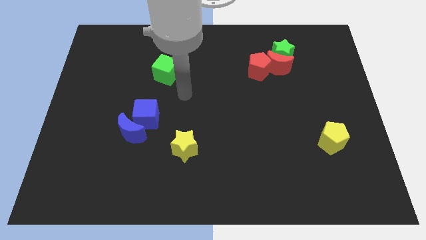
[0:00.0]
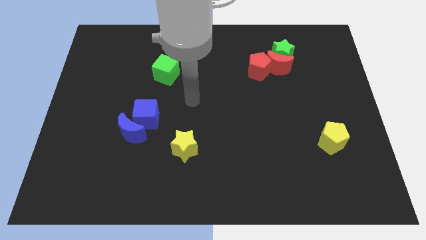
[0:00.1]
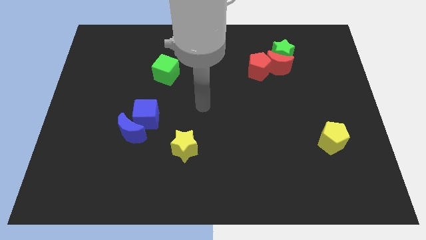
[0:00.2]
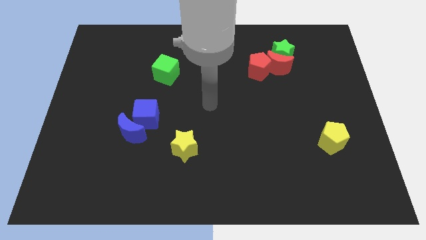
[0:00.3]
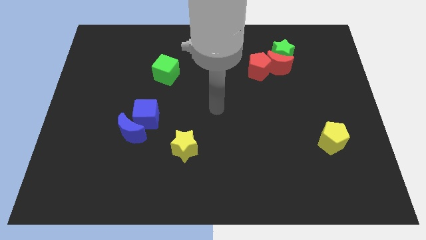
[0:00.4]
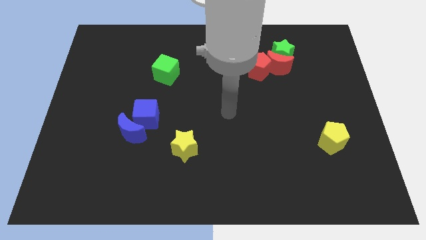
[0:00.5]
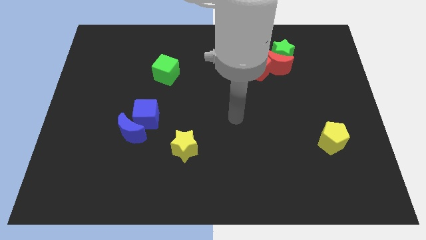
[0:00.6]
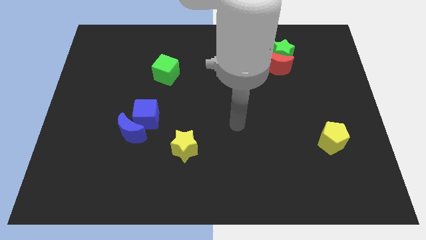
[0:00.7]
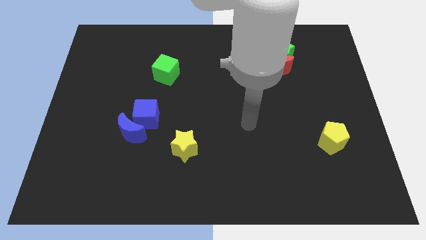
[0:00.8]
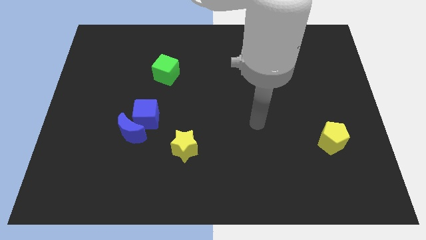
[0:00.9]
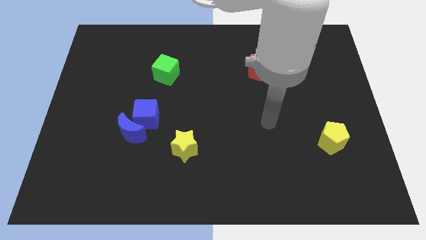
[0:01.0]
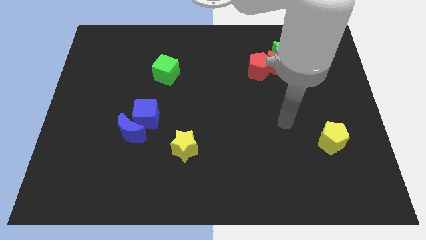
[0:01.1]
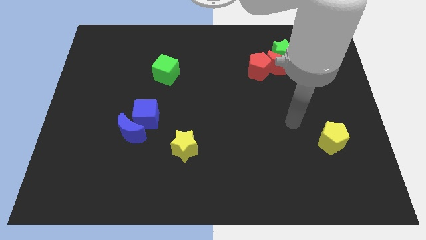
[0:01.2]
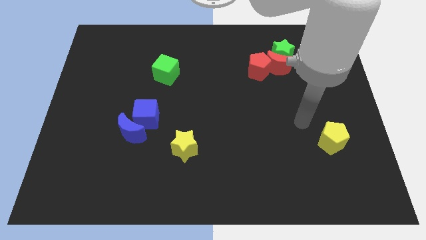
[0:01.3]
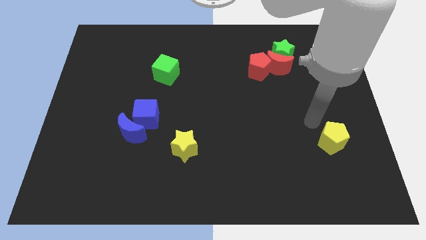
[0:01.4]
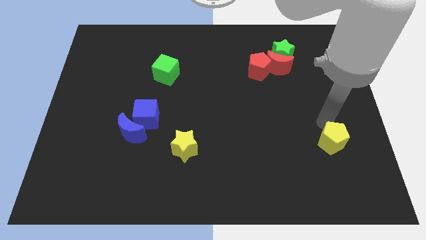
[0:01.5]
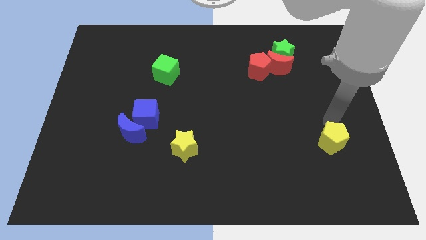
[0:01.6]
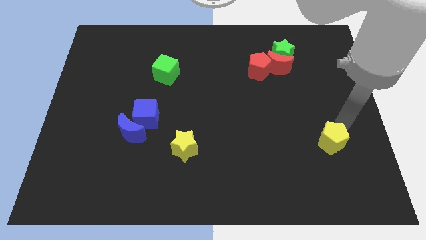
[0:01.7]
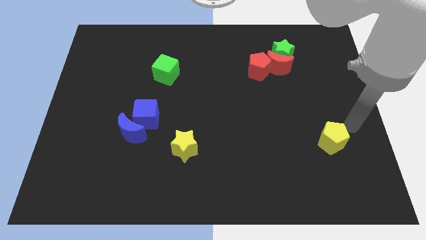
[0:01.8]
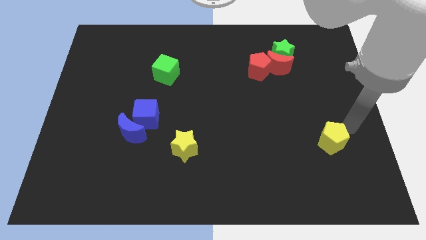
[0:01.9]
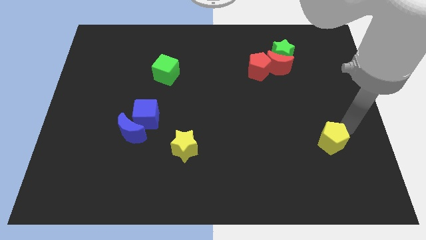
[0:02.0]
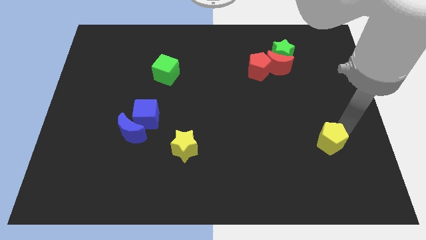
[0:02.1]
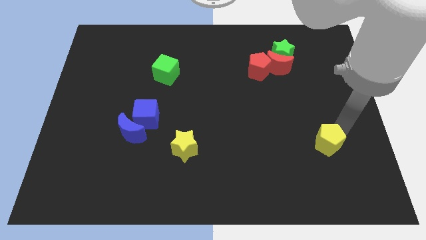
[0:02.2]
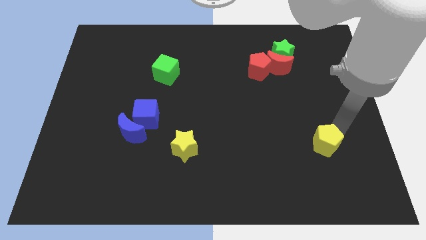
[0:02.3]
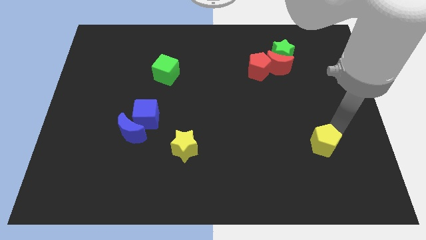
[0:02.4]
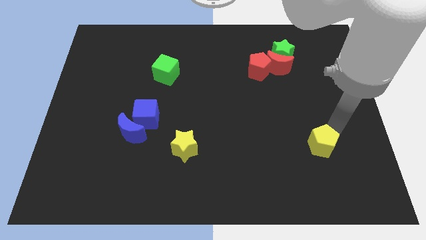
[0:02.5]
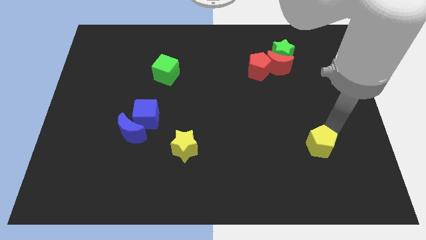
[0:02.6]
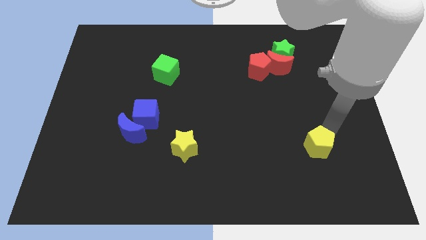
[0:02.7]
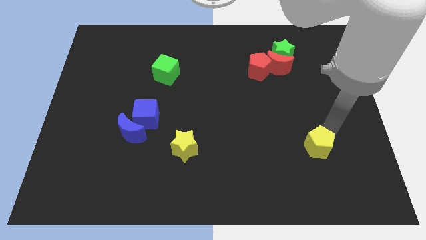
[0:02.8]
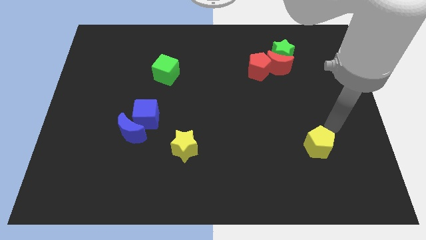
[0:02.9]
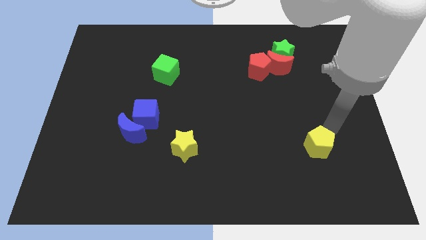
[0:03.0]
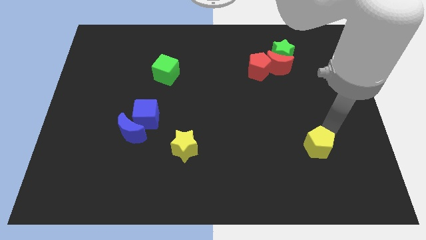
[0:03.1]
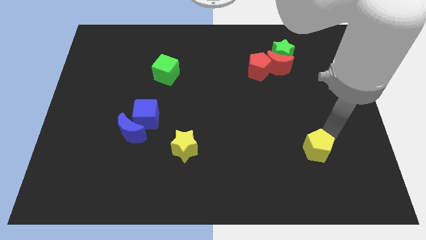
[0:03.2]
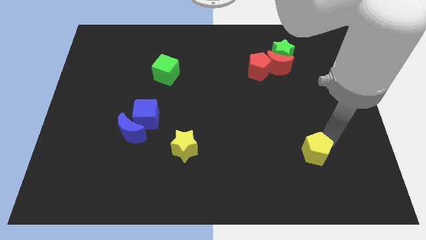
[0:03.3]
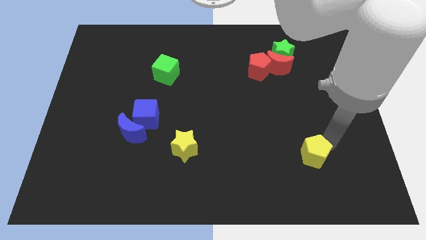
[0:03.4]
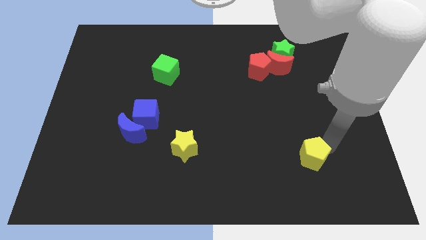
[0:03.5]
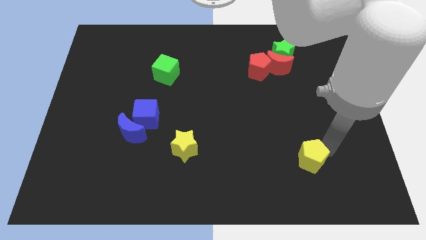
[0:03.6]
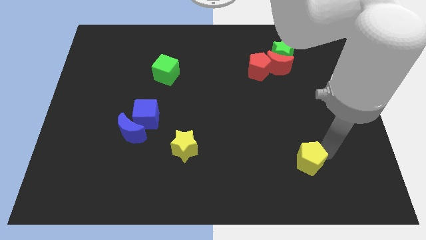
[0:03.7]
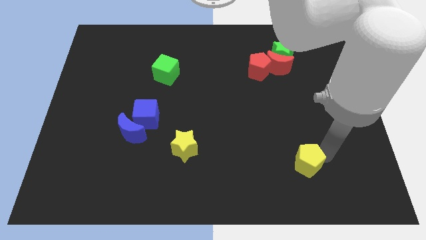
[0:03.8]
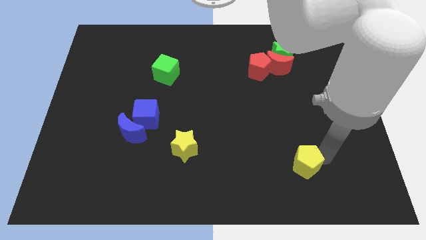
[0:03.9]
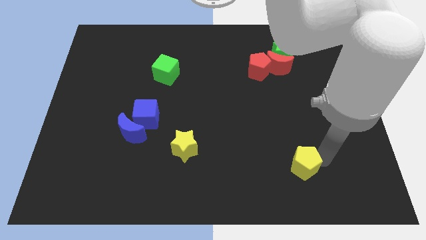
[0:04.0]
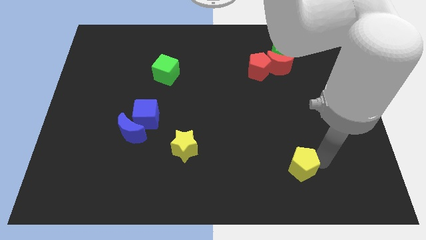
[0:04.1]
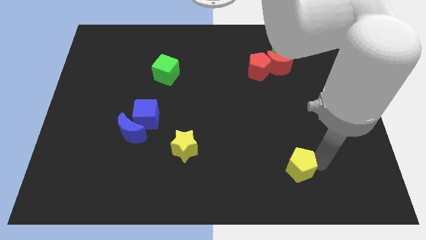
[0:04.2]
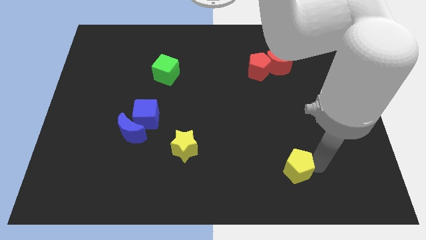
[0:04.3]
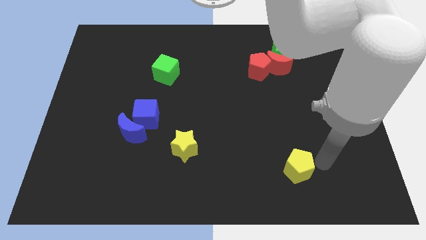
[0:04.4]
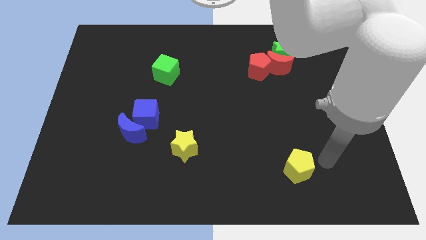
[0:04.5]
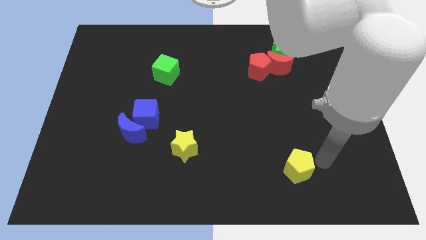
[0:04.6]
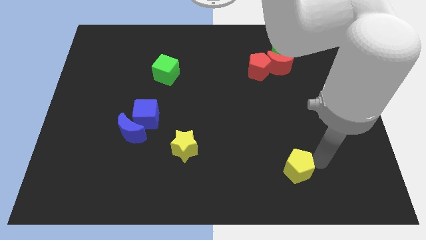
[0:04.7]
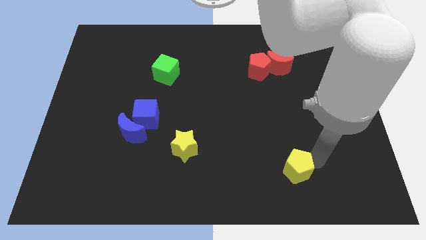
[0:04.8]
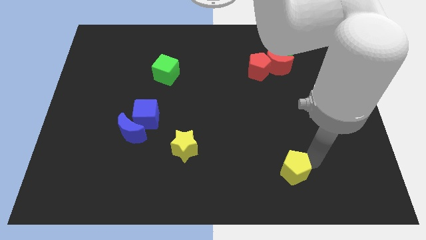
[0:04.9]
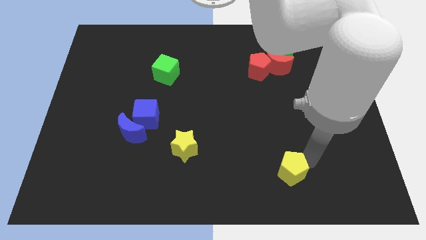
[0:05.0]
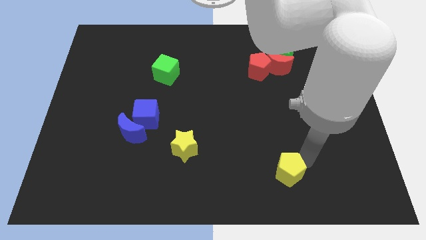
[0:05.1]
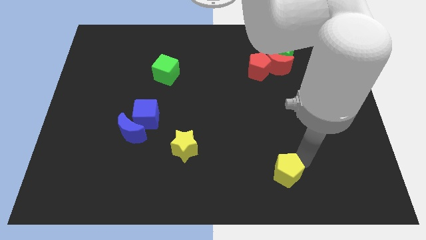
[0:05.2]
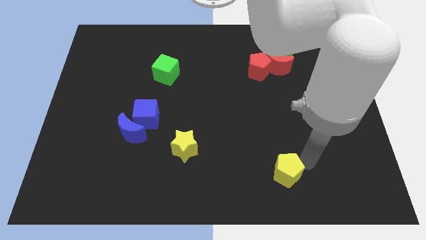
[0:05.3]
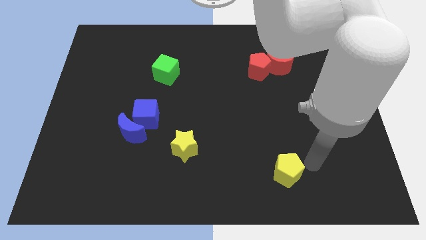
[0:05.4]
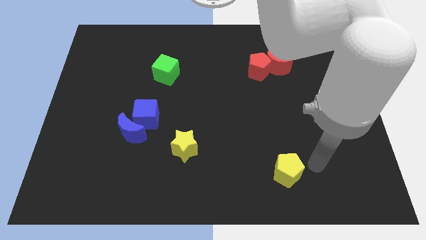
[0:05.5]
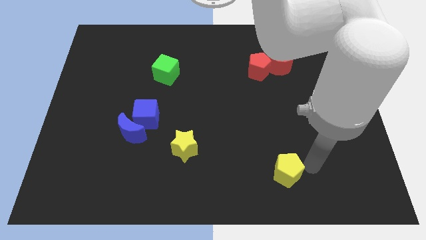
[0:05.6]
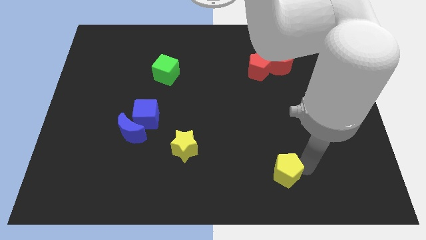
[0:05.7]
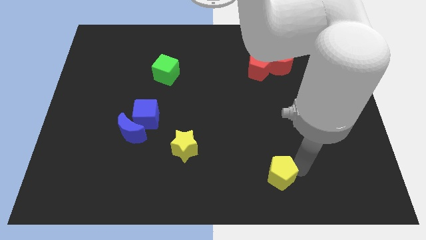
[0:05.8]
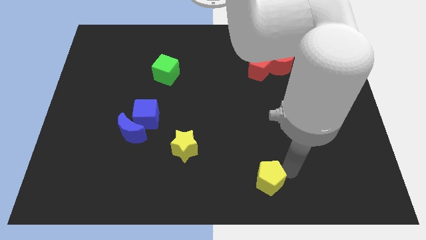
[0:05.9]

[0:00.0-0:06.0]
slide the yellow pentagon to the bottom side
